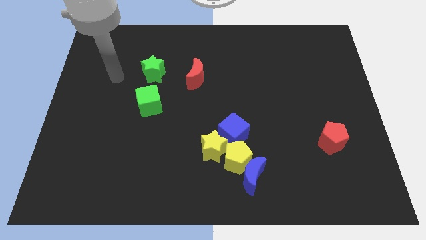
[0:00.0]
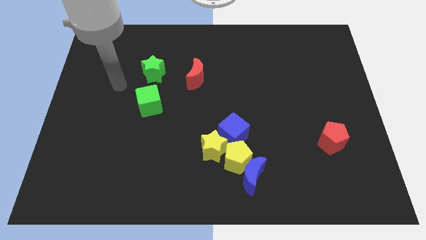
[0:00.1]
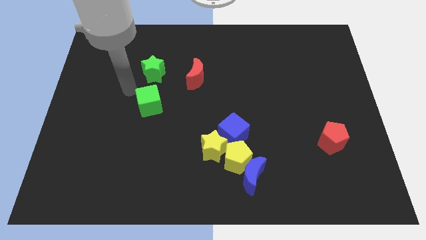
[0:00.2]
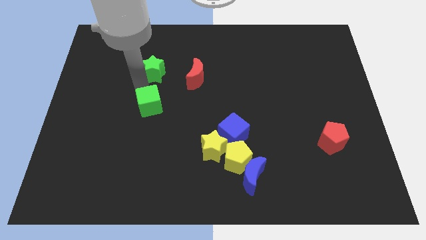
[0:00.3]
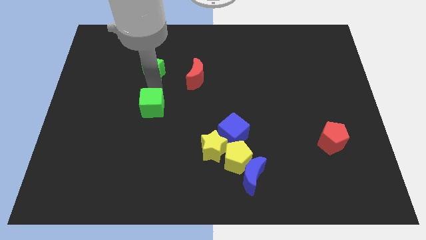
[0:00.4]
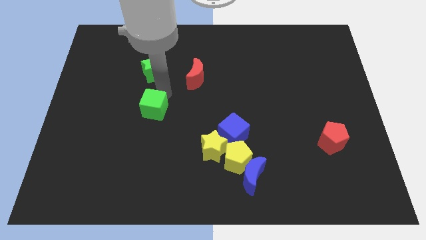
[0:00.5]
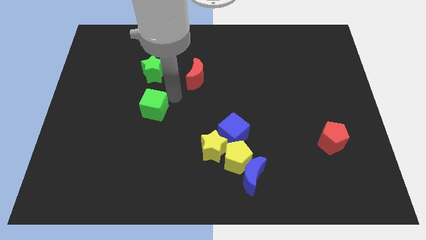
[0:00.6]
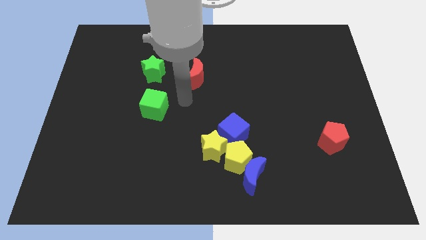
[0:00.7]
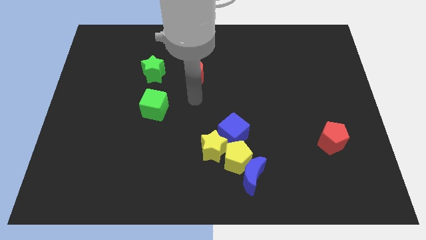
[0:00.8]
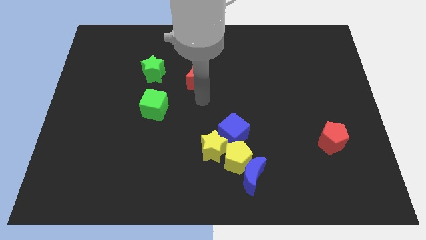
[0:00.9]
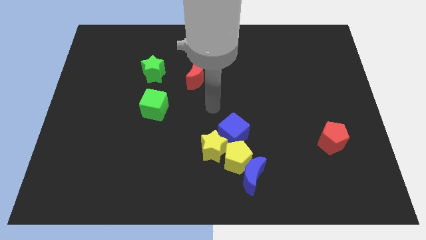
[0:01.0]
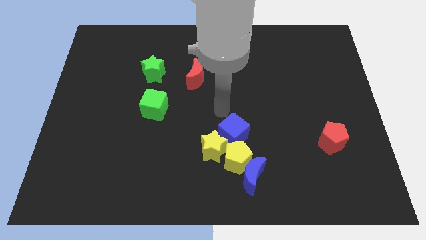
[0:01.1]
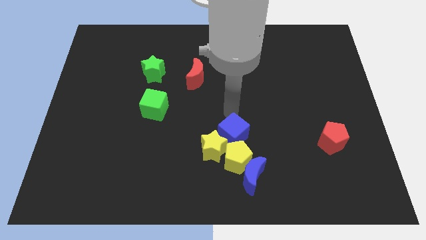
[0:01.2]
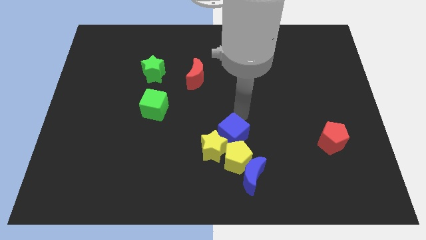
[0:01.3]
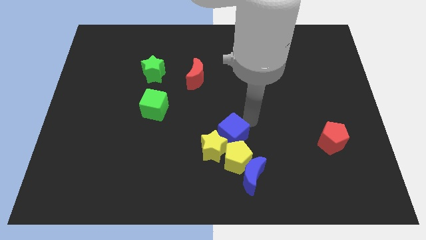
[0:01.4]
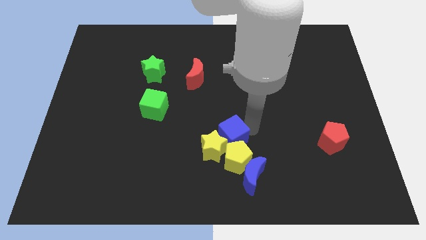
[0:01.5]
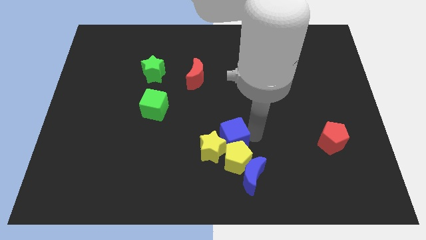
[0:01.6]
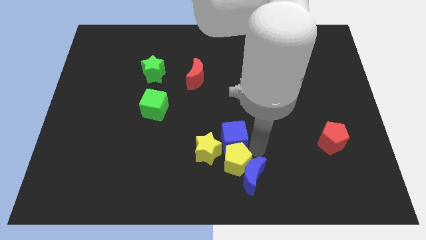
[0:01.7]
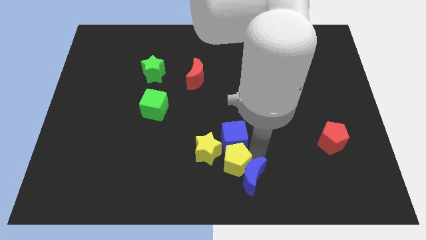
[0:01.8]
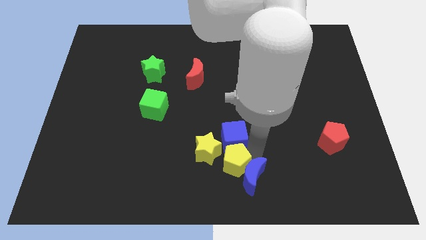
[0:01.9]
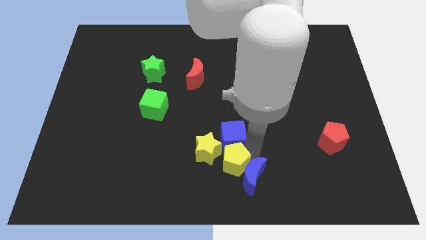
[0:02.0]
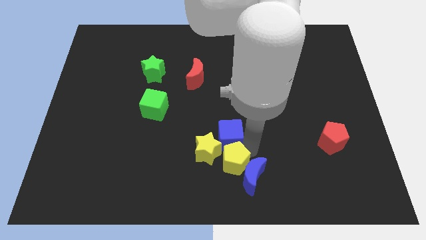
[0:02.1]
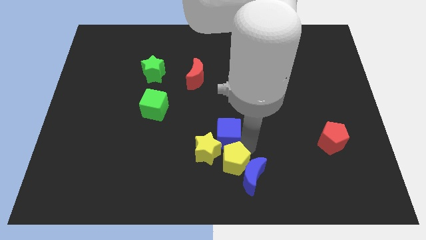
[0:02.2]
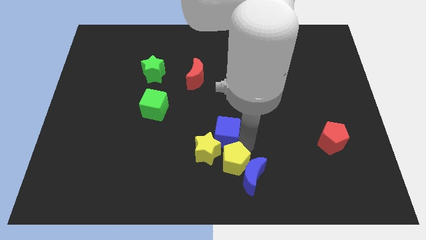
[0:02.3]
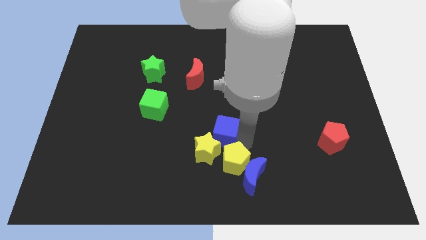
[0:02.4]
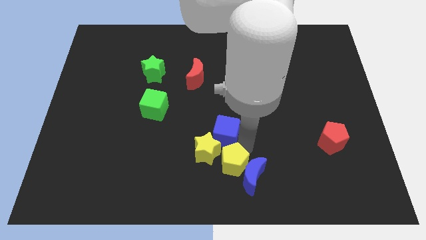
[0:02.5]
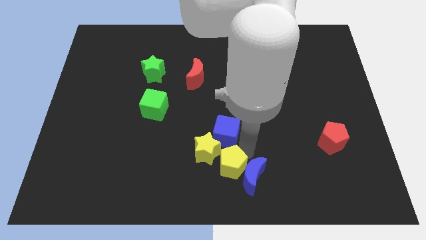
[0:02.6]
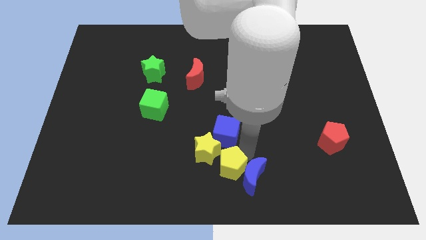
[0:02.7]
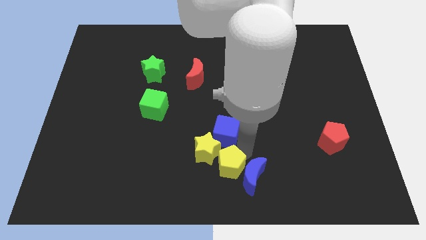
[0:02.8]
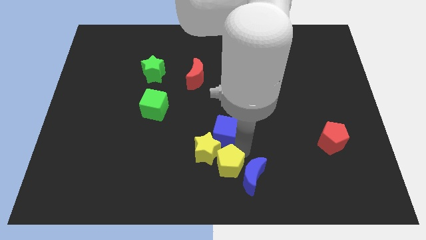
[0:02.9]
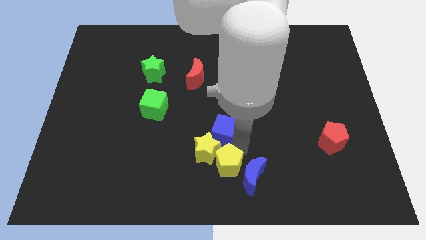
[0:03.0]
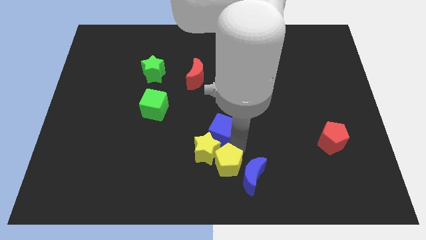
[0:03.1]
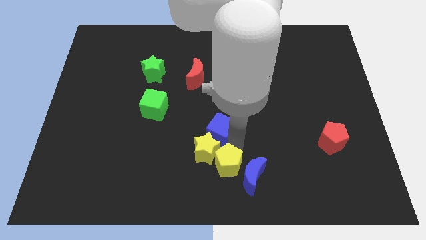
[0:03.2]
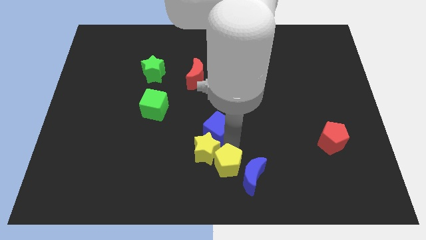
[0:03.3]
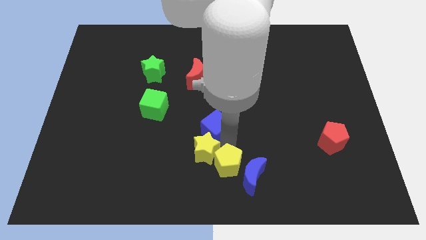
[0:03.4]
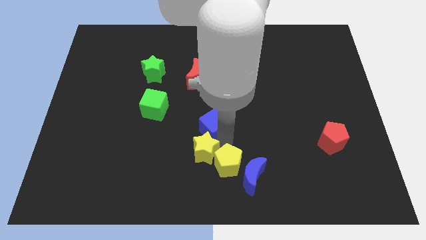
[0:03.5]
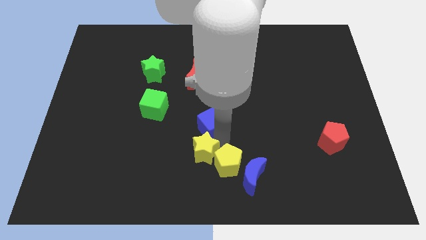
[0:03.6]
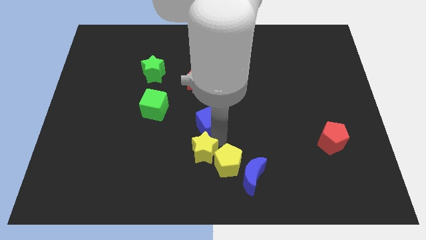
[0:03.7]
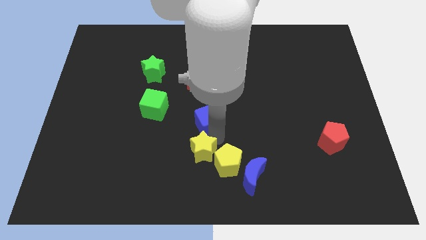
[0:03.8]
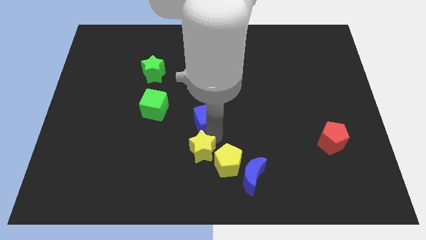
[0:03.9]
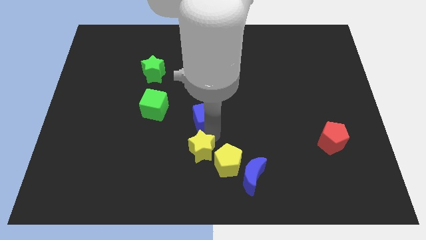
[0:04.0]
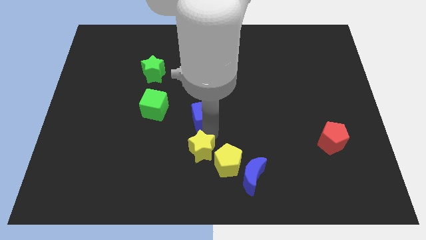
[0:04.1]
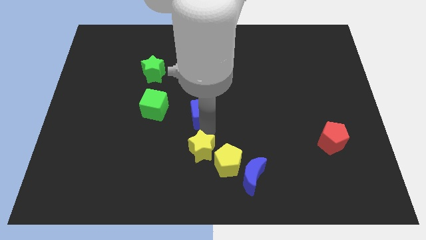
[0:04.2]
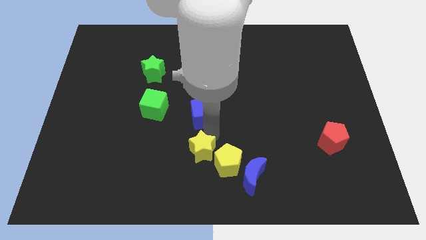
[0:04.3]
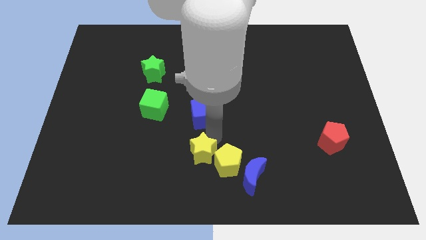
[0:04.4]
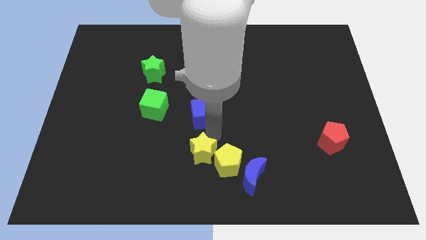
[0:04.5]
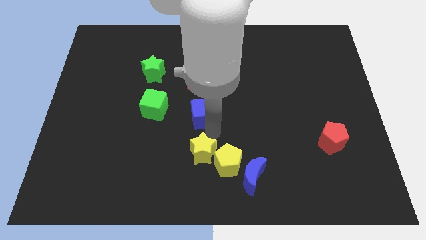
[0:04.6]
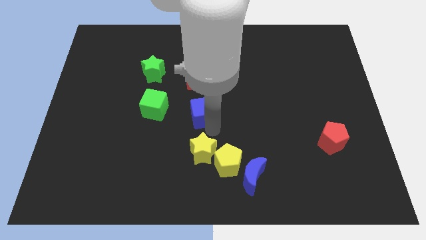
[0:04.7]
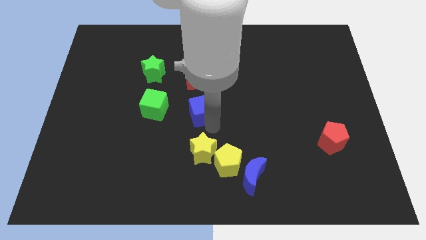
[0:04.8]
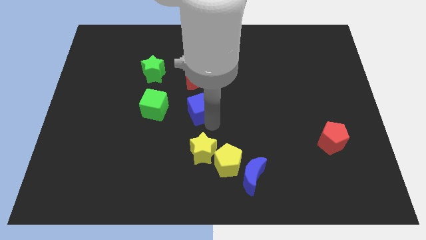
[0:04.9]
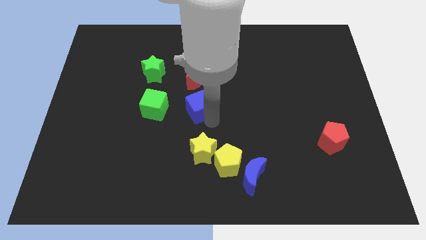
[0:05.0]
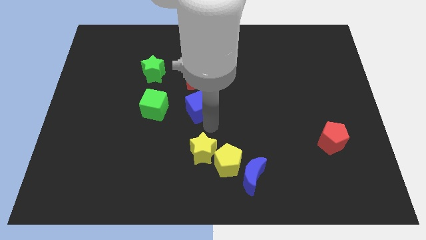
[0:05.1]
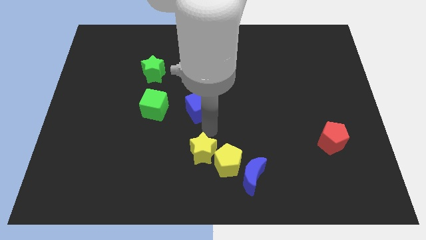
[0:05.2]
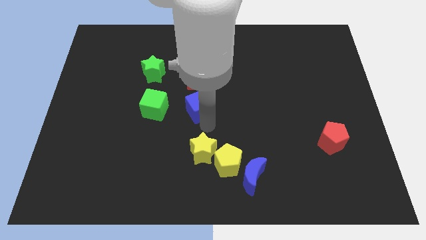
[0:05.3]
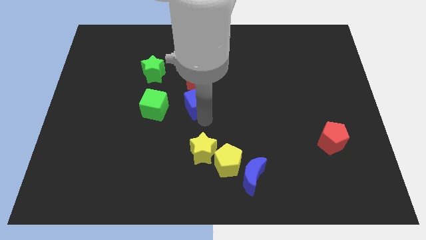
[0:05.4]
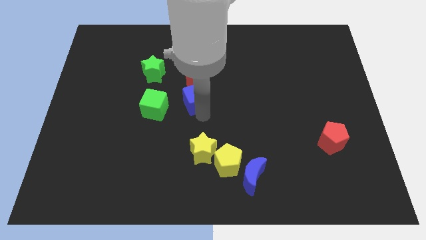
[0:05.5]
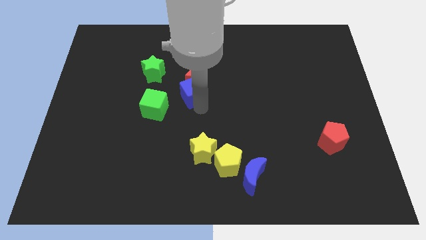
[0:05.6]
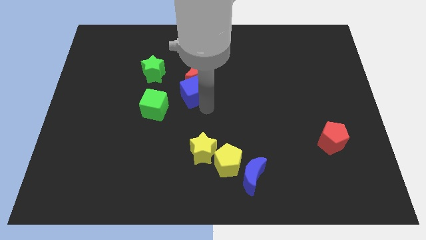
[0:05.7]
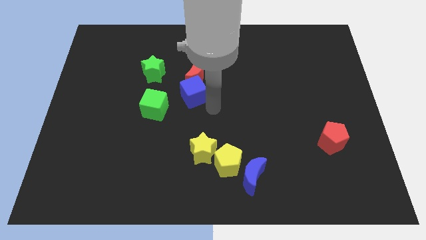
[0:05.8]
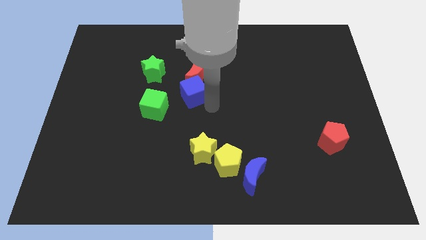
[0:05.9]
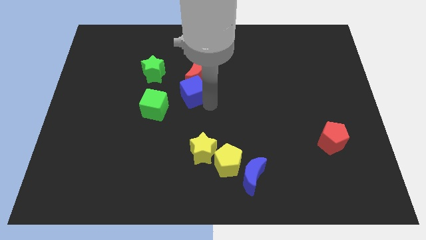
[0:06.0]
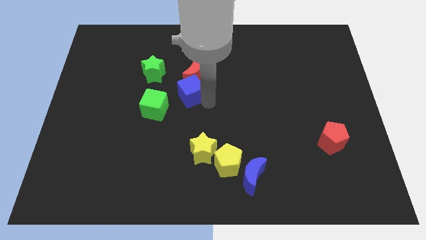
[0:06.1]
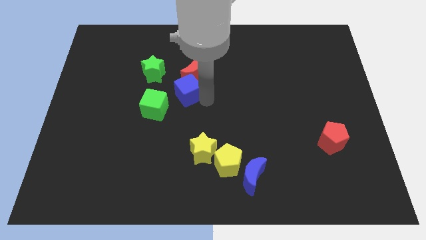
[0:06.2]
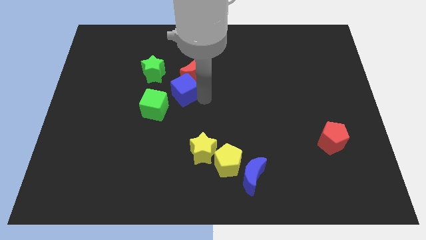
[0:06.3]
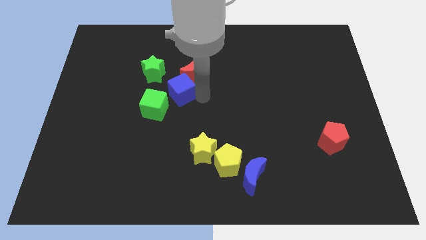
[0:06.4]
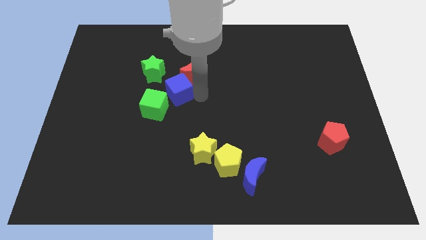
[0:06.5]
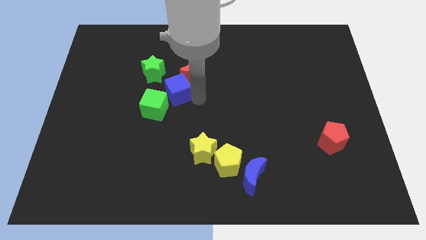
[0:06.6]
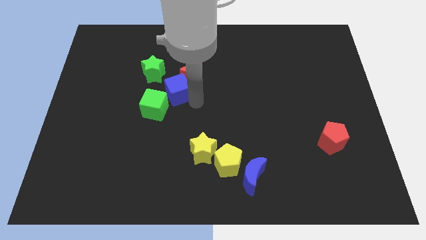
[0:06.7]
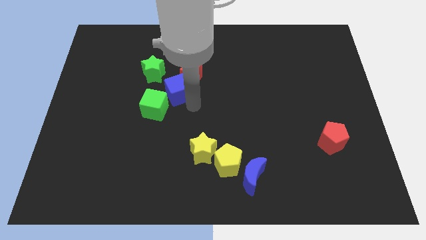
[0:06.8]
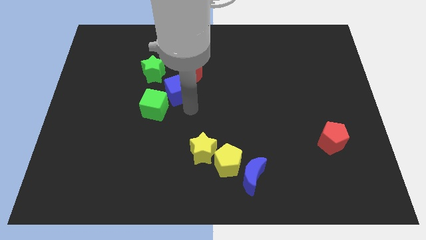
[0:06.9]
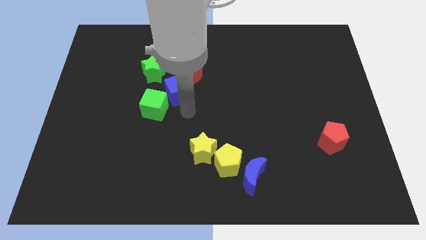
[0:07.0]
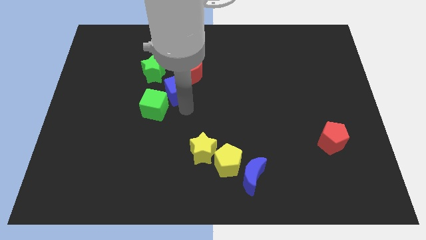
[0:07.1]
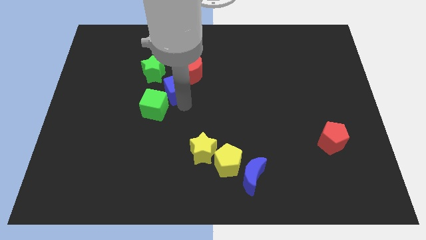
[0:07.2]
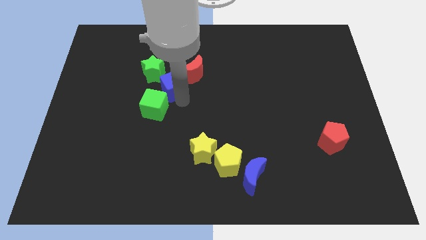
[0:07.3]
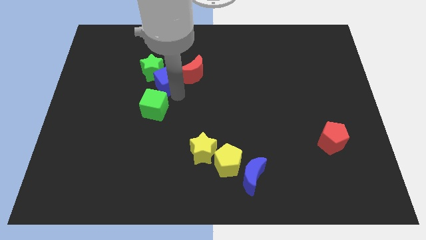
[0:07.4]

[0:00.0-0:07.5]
push the blue cube up and then to the left

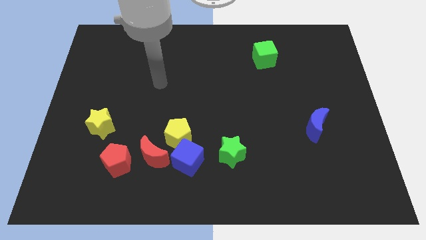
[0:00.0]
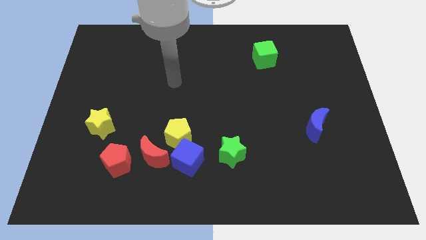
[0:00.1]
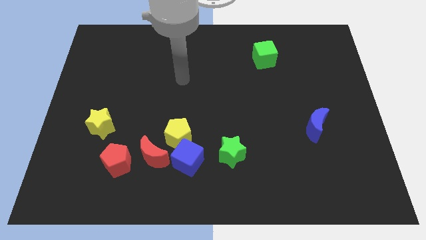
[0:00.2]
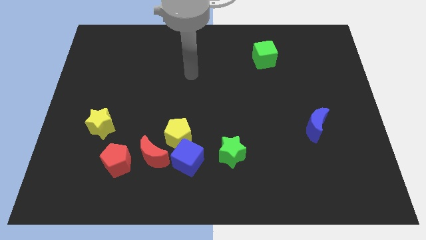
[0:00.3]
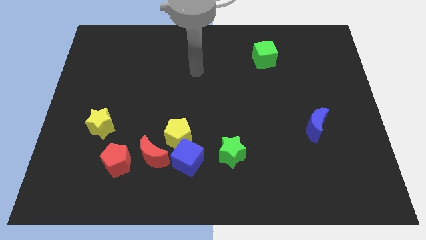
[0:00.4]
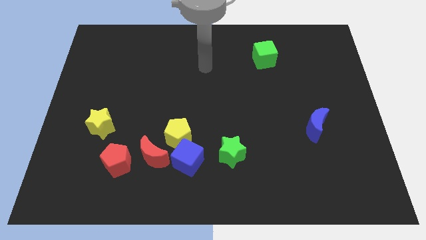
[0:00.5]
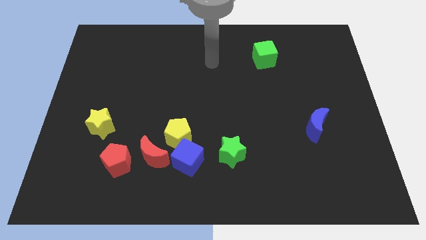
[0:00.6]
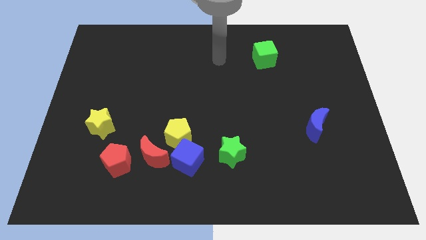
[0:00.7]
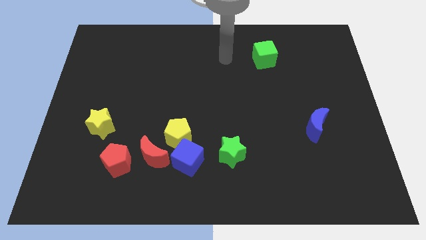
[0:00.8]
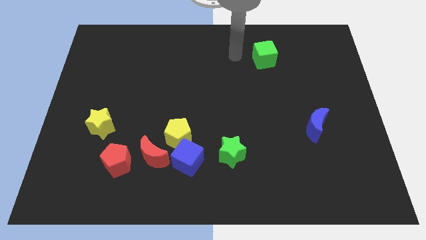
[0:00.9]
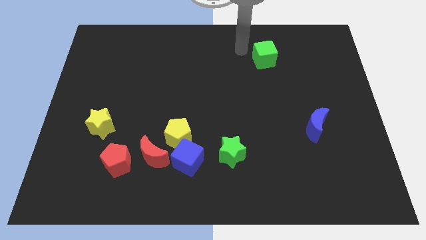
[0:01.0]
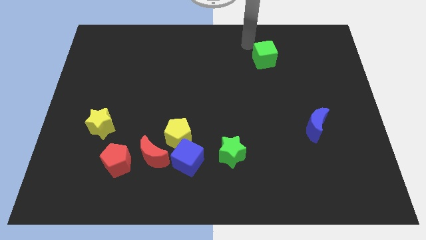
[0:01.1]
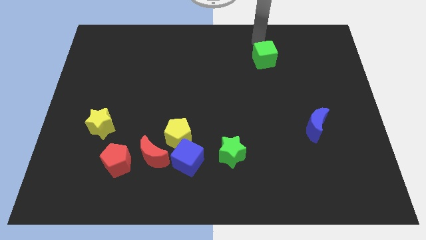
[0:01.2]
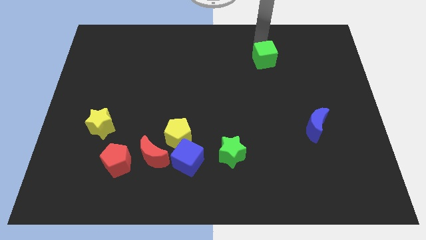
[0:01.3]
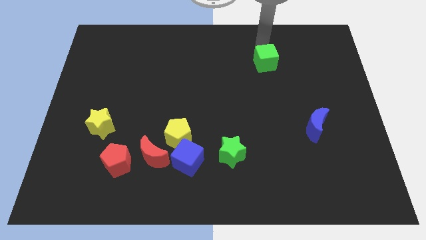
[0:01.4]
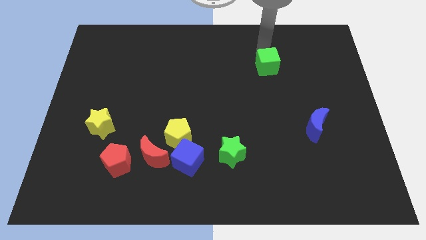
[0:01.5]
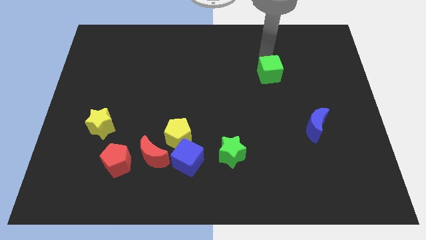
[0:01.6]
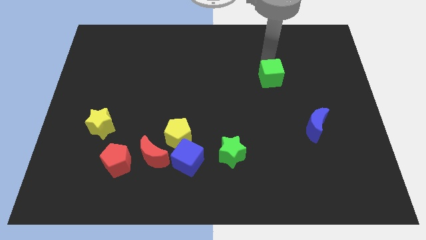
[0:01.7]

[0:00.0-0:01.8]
move the green cube downwards a bit
